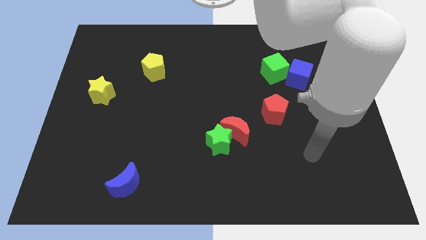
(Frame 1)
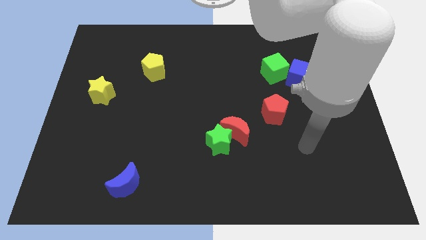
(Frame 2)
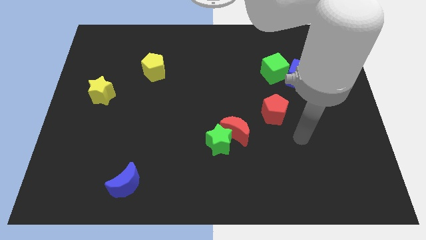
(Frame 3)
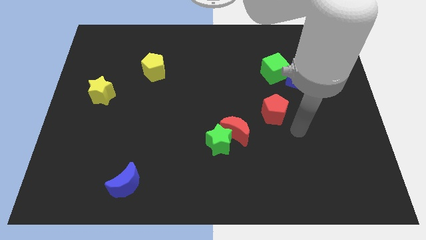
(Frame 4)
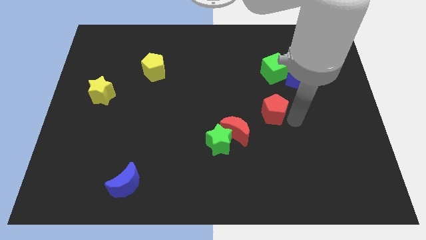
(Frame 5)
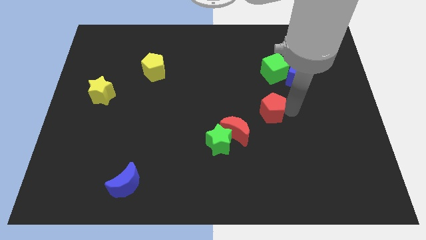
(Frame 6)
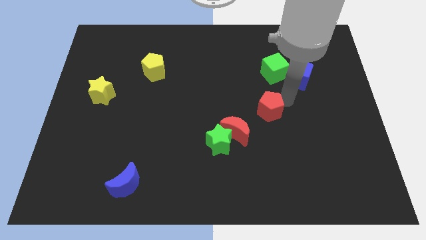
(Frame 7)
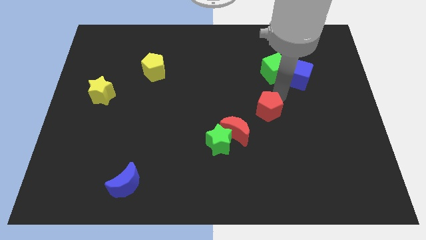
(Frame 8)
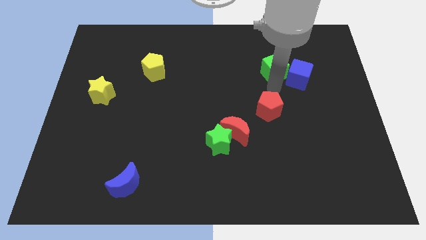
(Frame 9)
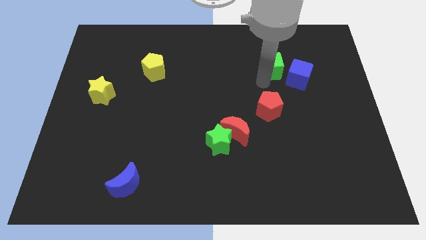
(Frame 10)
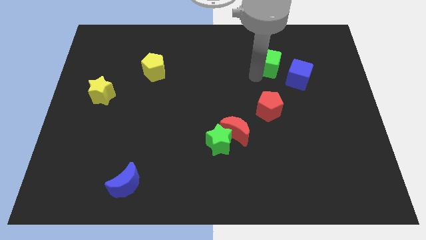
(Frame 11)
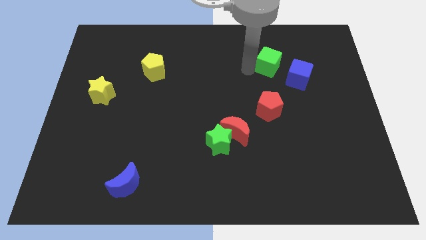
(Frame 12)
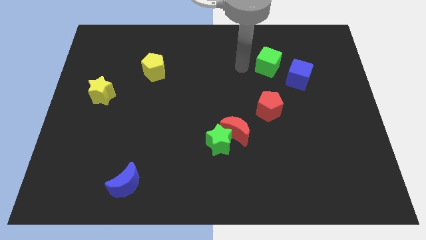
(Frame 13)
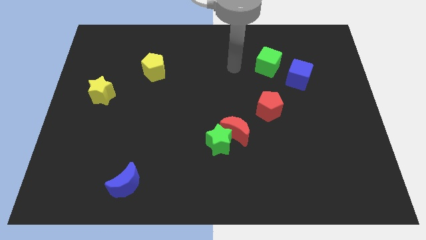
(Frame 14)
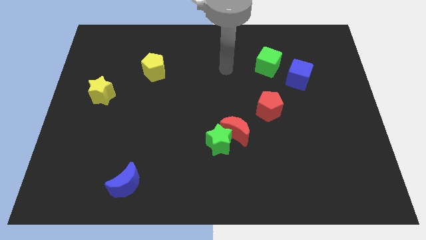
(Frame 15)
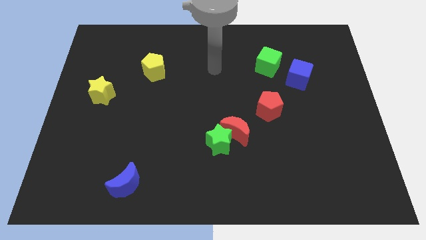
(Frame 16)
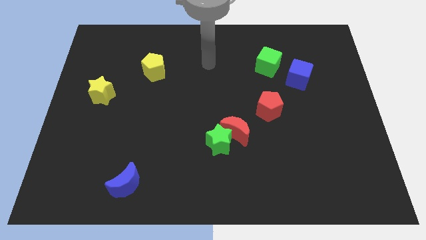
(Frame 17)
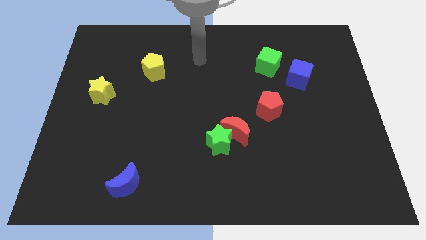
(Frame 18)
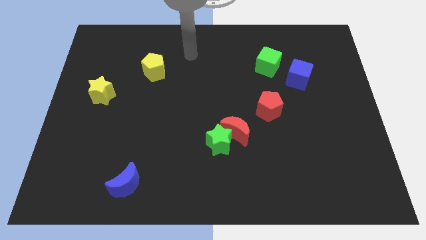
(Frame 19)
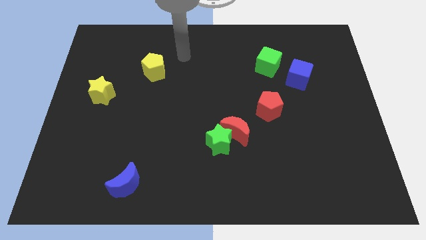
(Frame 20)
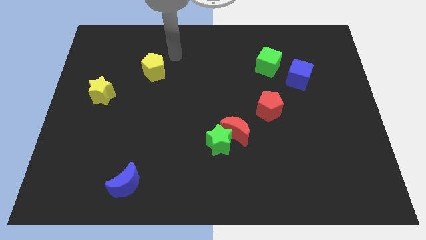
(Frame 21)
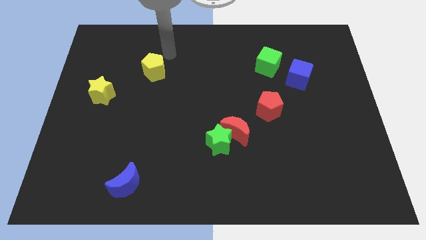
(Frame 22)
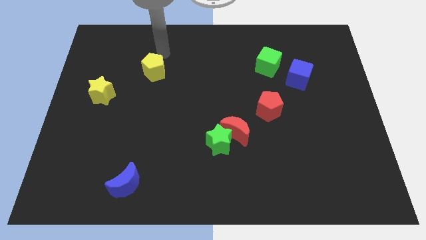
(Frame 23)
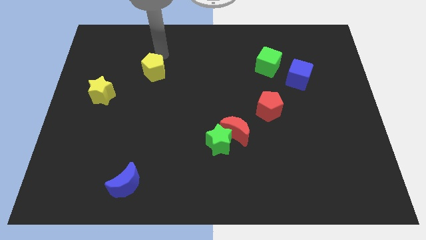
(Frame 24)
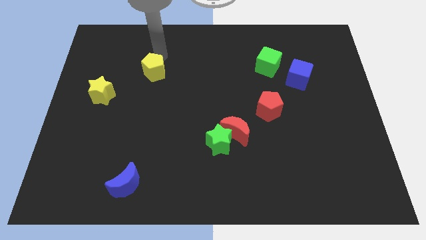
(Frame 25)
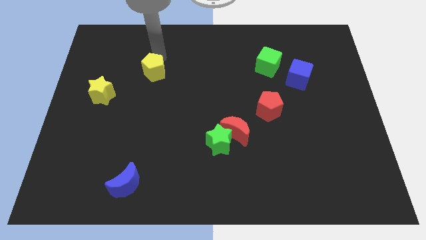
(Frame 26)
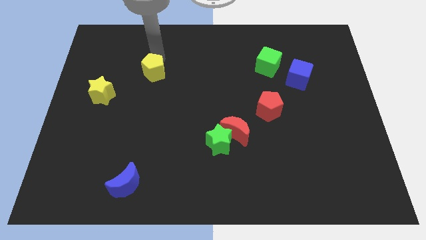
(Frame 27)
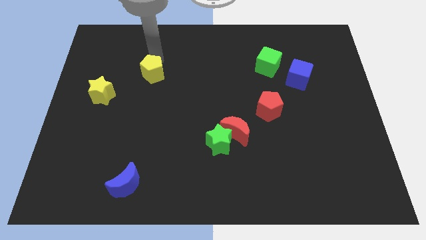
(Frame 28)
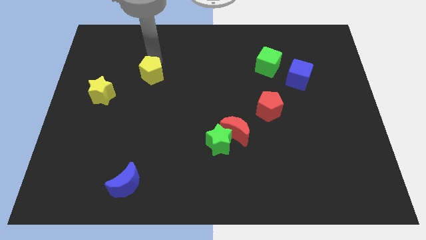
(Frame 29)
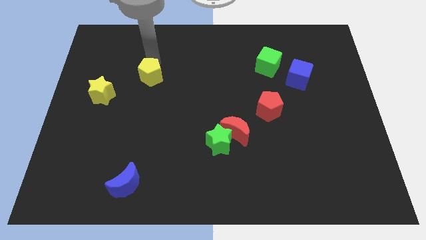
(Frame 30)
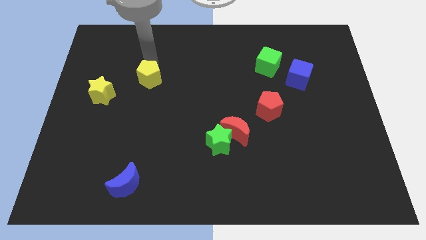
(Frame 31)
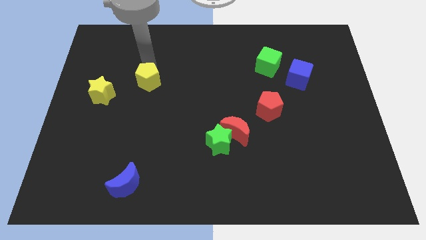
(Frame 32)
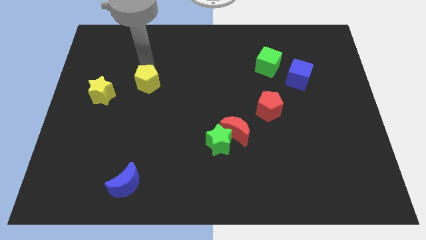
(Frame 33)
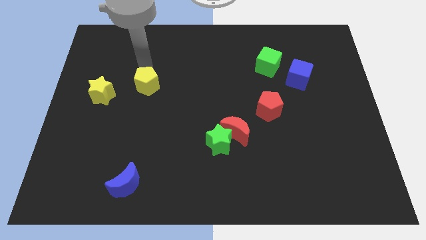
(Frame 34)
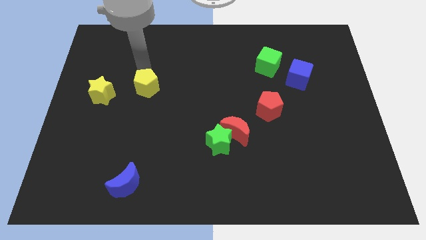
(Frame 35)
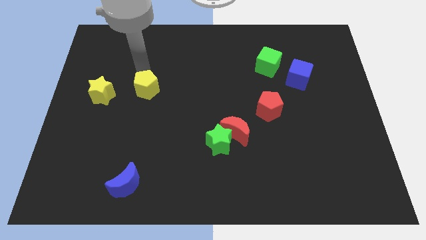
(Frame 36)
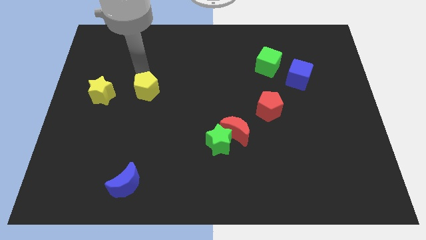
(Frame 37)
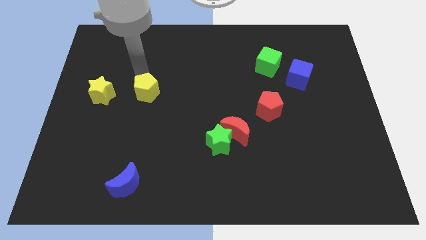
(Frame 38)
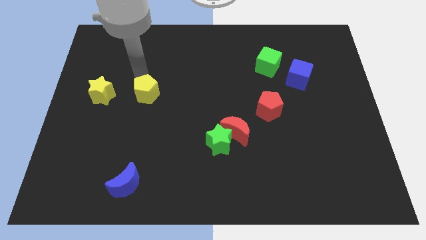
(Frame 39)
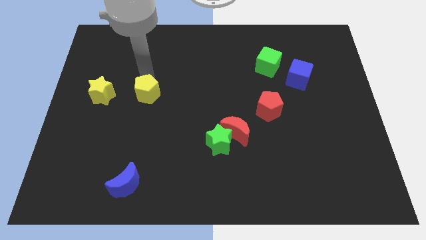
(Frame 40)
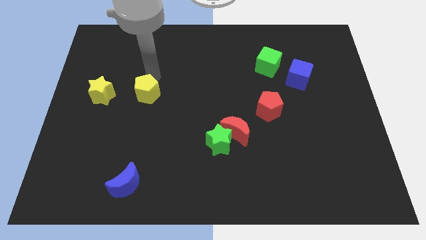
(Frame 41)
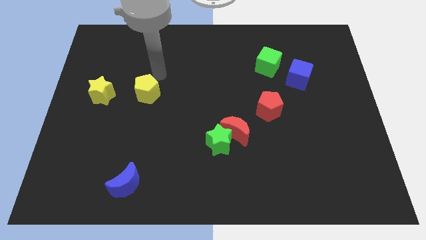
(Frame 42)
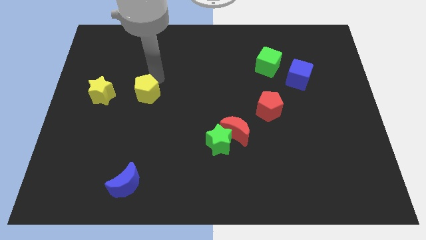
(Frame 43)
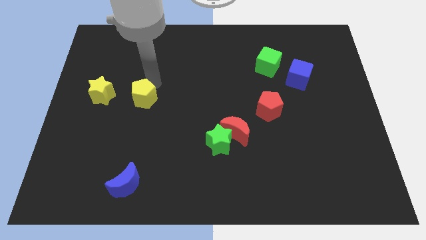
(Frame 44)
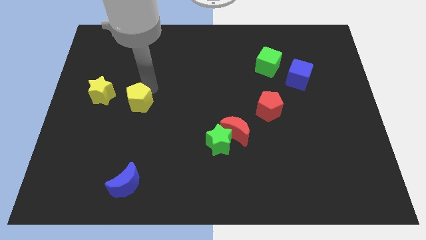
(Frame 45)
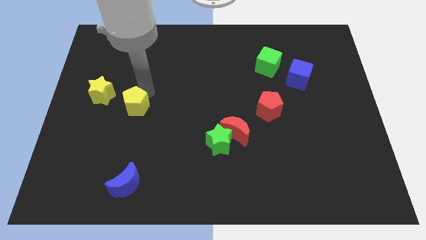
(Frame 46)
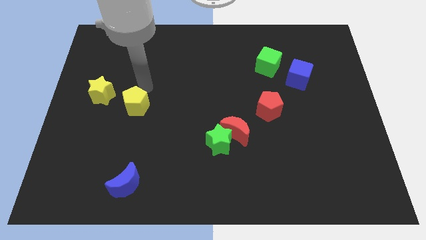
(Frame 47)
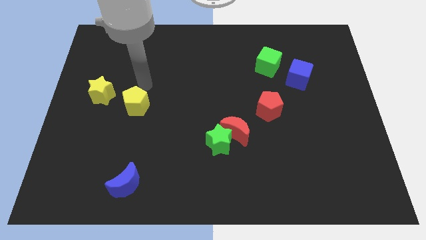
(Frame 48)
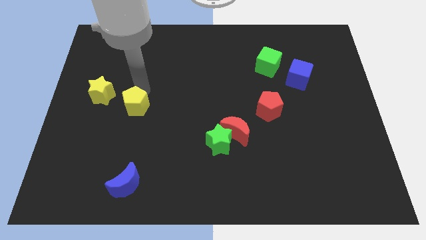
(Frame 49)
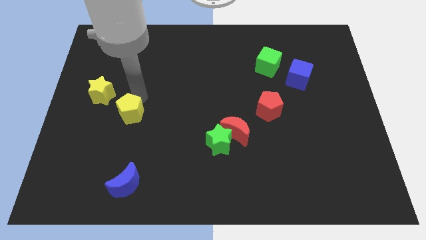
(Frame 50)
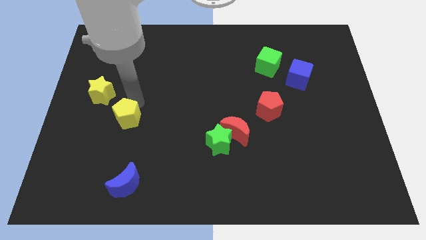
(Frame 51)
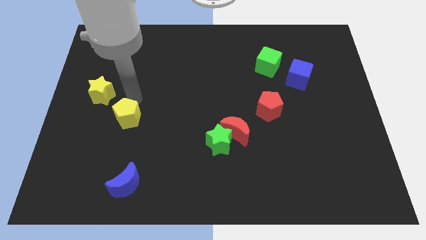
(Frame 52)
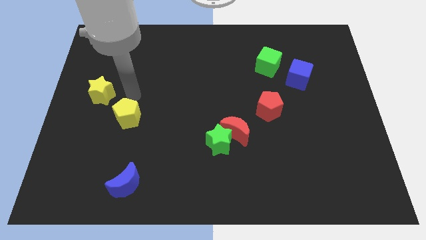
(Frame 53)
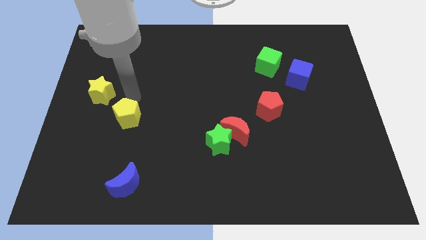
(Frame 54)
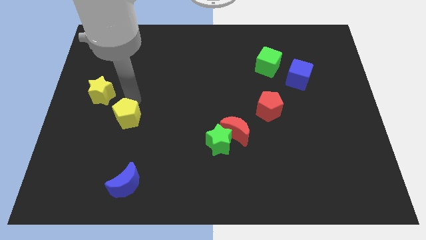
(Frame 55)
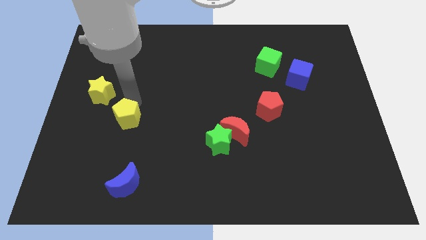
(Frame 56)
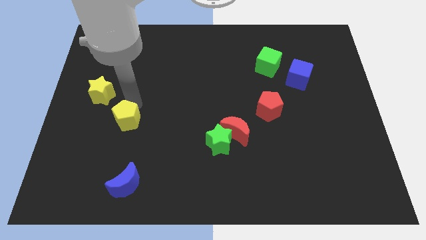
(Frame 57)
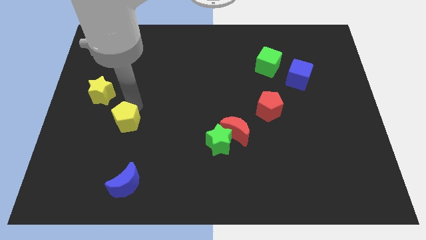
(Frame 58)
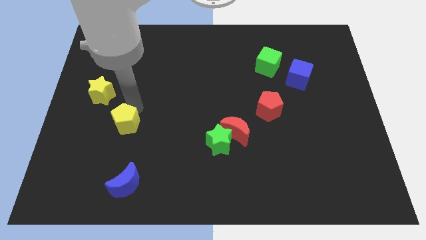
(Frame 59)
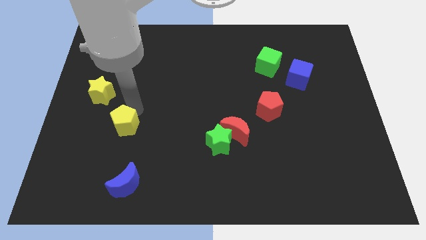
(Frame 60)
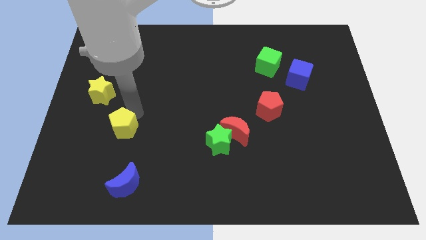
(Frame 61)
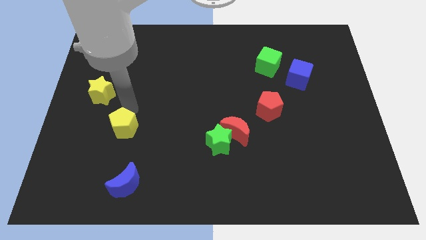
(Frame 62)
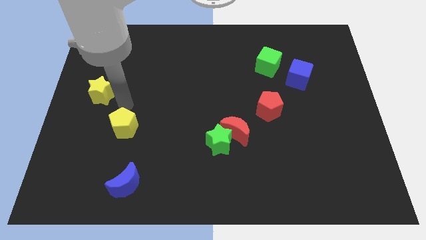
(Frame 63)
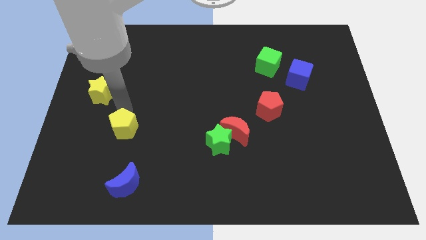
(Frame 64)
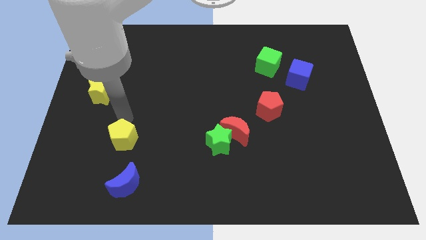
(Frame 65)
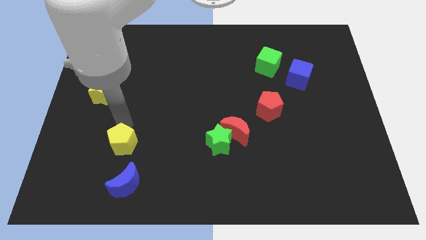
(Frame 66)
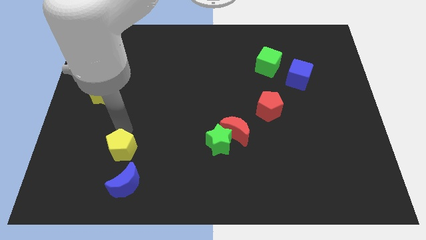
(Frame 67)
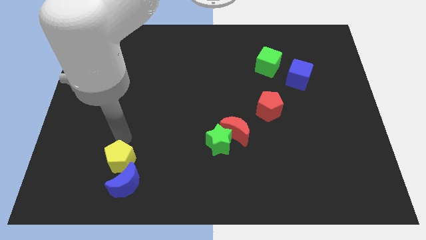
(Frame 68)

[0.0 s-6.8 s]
put the yellow pentagon to the blue moon

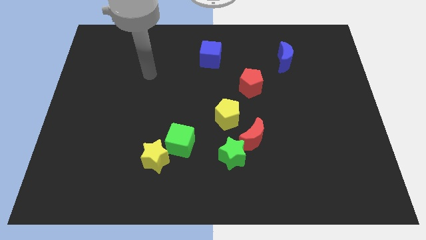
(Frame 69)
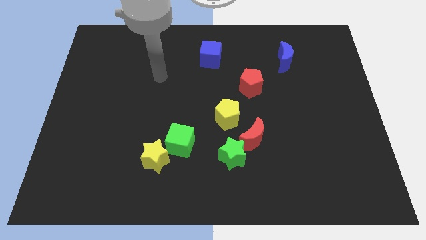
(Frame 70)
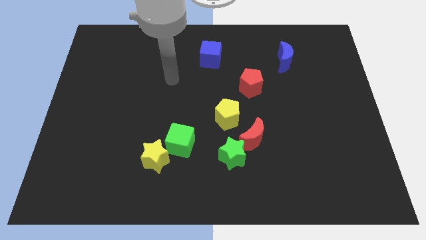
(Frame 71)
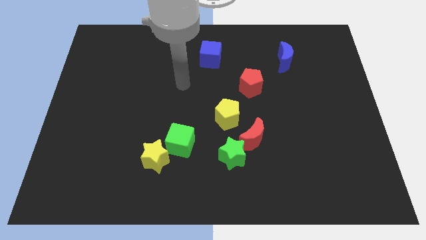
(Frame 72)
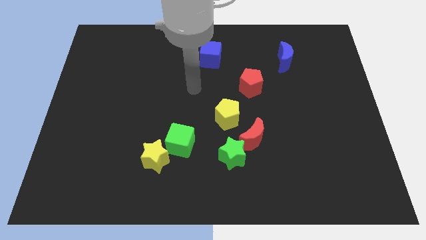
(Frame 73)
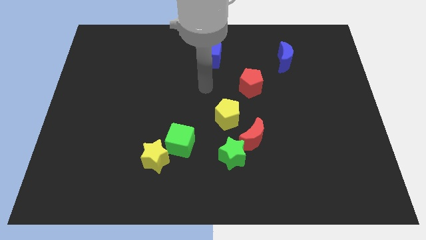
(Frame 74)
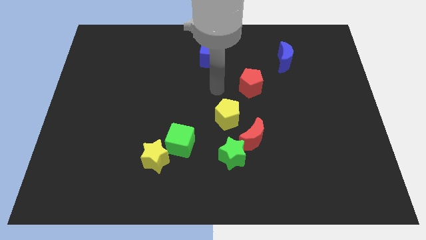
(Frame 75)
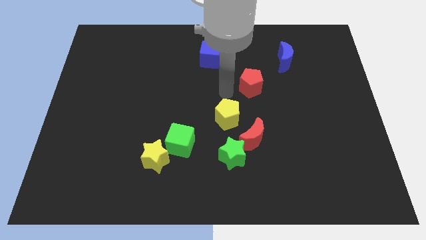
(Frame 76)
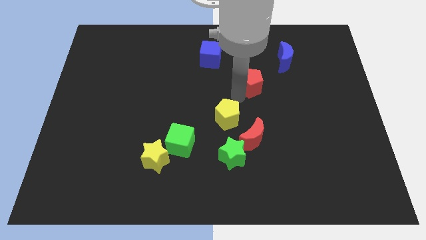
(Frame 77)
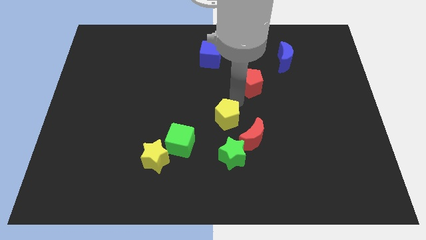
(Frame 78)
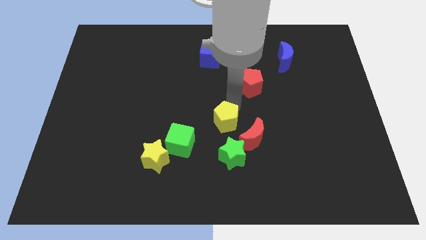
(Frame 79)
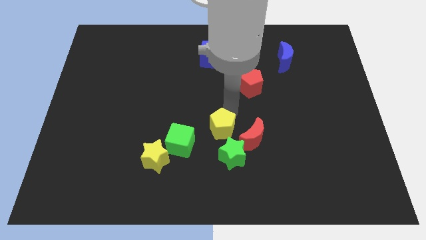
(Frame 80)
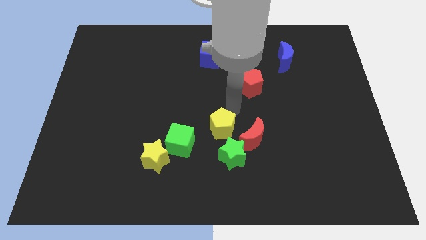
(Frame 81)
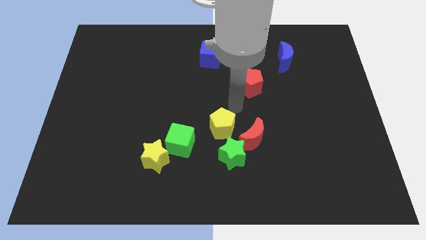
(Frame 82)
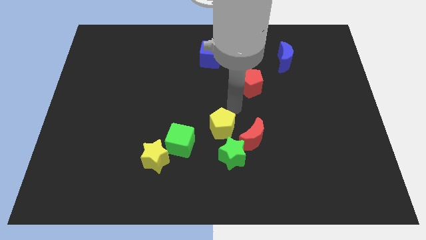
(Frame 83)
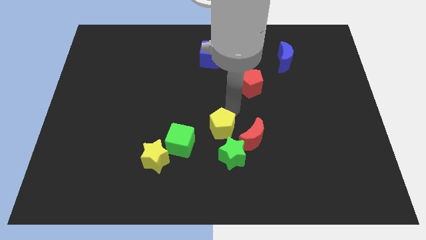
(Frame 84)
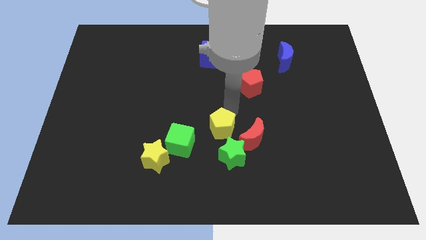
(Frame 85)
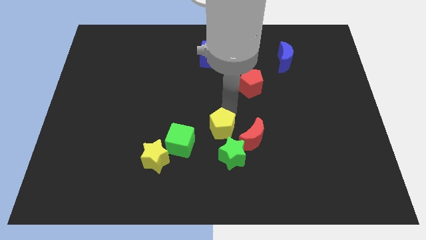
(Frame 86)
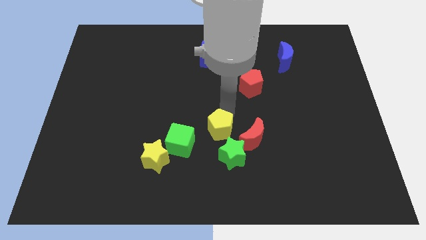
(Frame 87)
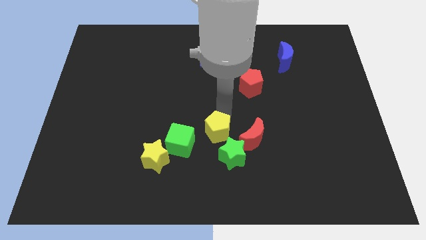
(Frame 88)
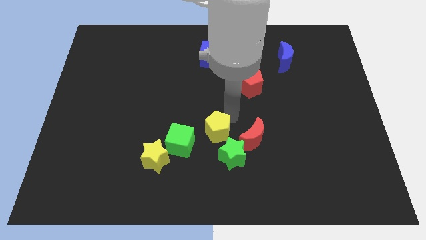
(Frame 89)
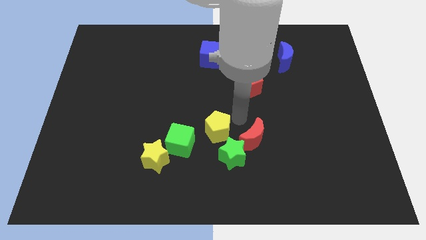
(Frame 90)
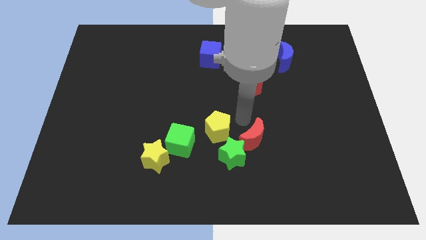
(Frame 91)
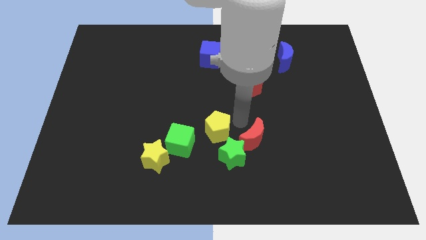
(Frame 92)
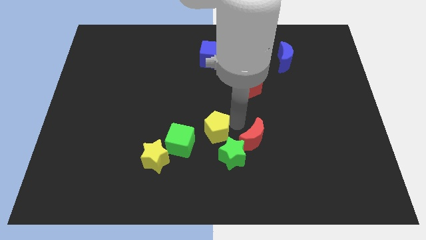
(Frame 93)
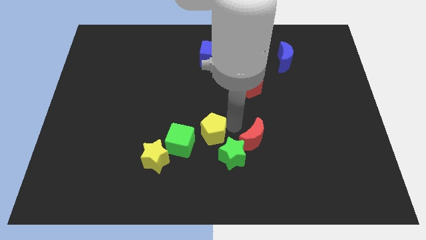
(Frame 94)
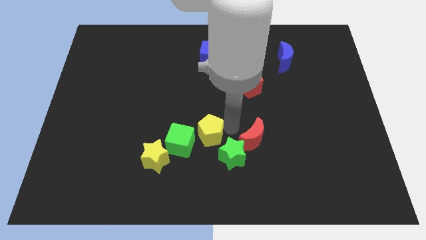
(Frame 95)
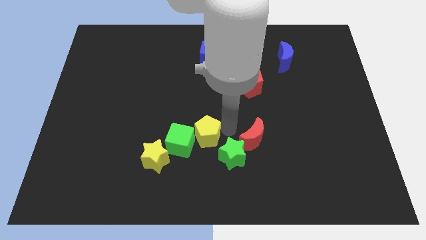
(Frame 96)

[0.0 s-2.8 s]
push the yellow pentagon next to the green cube
